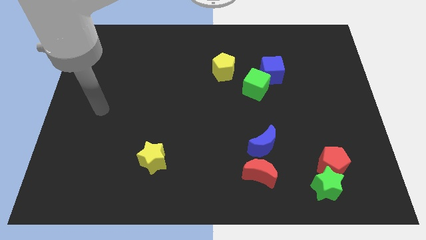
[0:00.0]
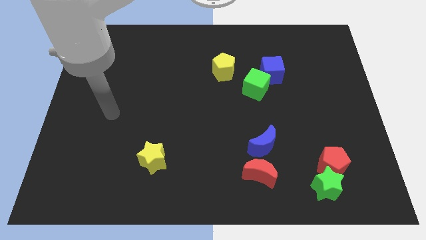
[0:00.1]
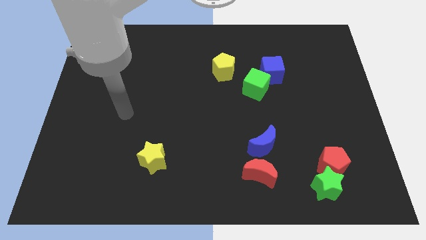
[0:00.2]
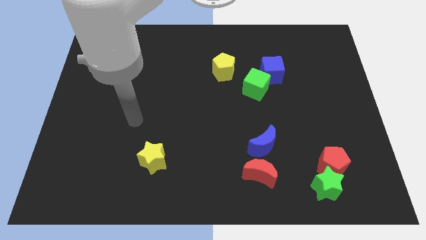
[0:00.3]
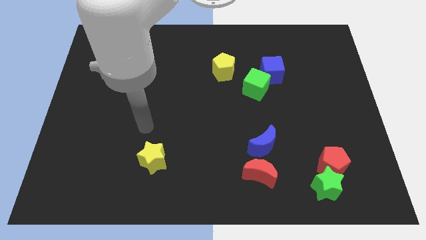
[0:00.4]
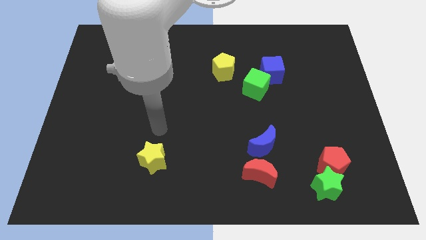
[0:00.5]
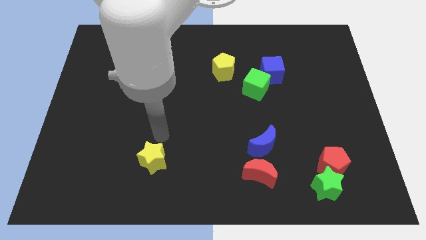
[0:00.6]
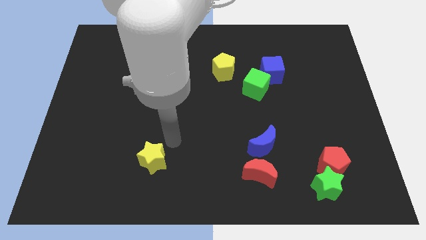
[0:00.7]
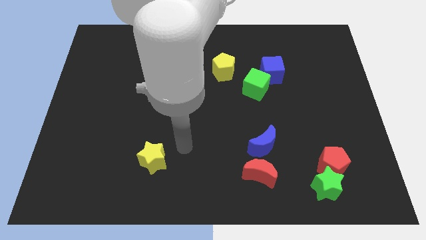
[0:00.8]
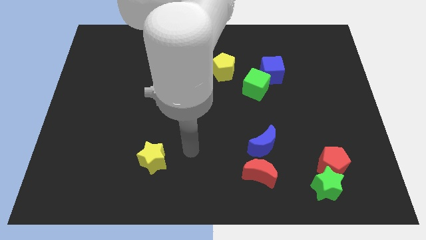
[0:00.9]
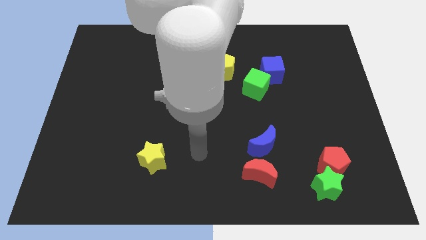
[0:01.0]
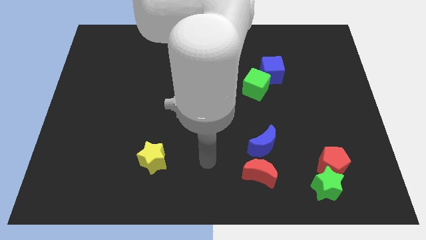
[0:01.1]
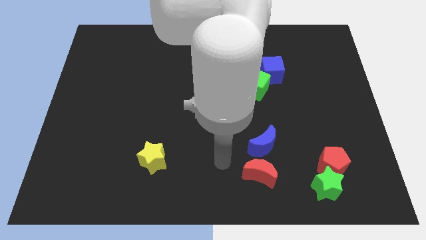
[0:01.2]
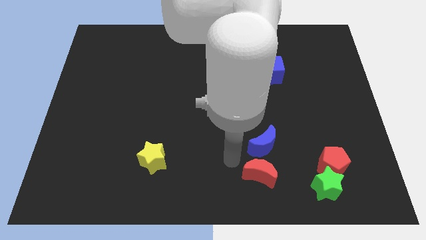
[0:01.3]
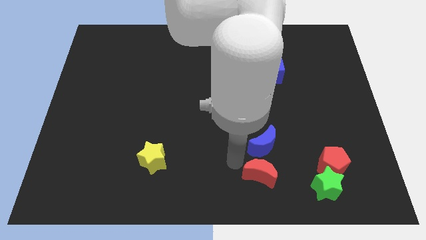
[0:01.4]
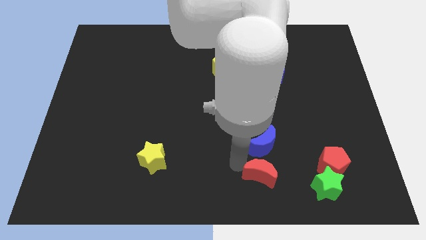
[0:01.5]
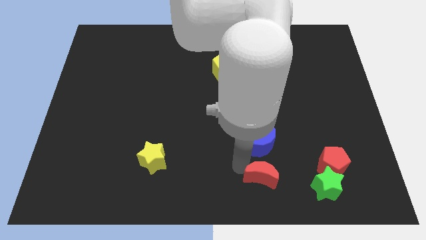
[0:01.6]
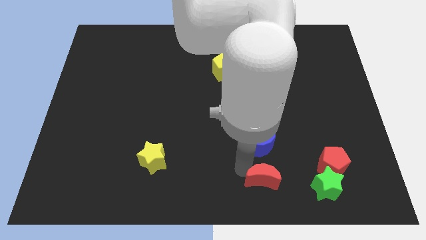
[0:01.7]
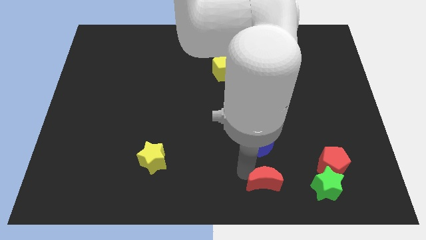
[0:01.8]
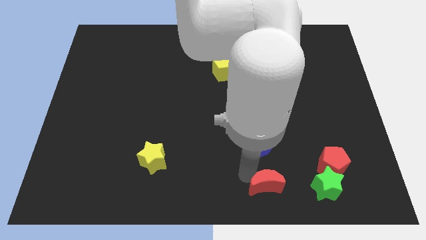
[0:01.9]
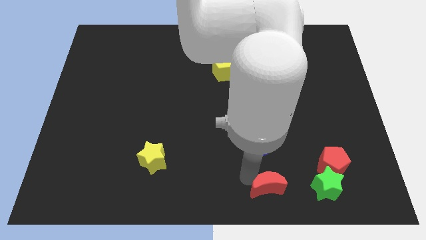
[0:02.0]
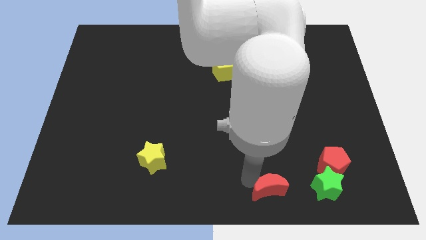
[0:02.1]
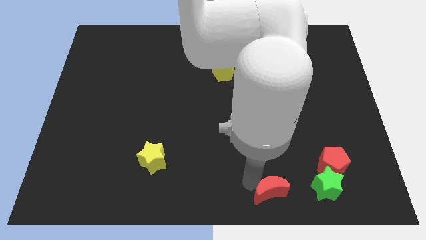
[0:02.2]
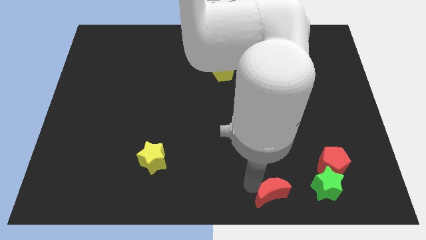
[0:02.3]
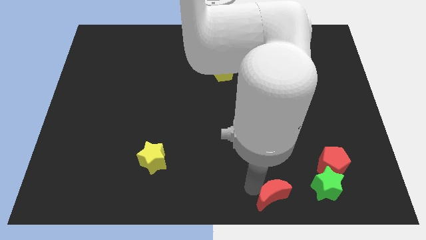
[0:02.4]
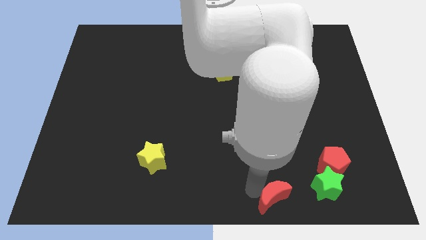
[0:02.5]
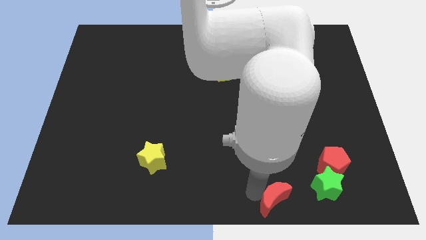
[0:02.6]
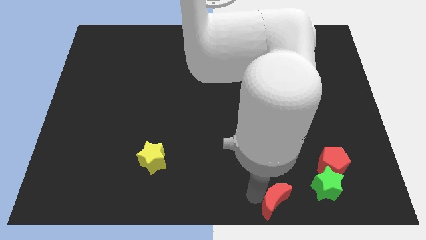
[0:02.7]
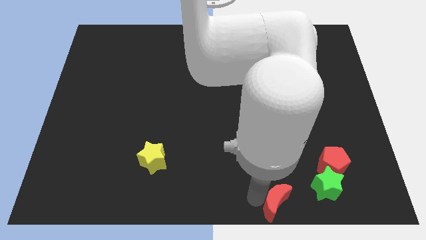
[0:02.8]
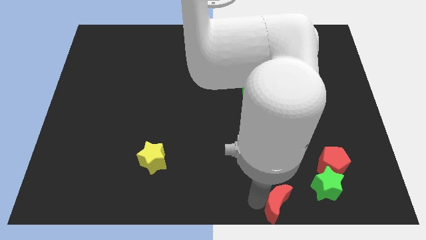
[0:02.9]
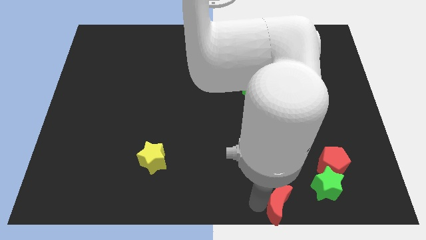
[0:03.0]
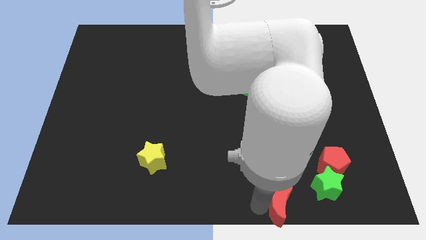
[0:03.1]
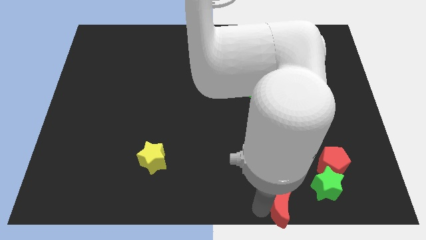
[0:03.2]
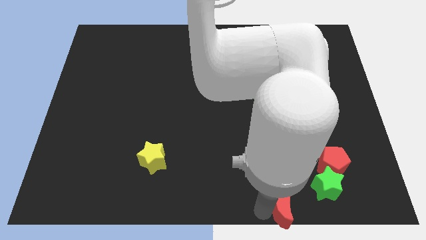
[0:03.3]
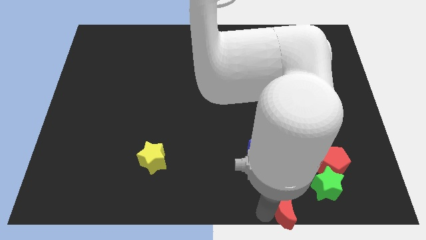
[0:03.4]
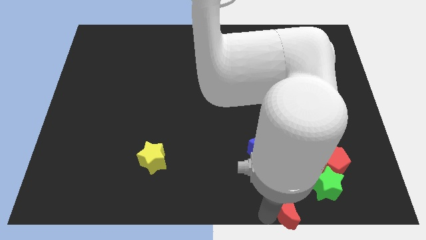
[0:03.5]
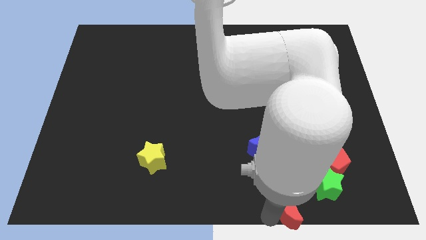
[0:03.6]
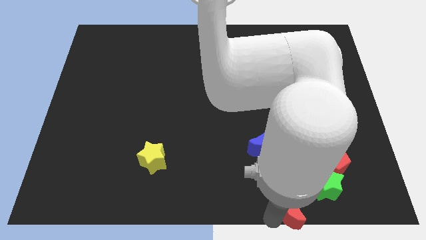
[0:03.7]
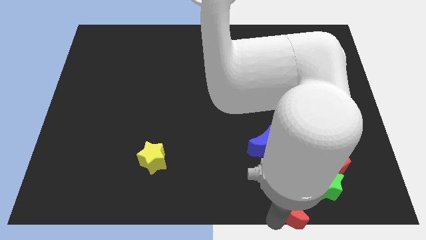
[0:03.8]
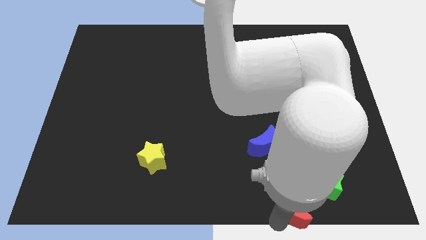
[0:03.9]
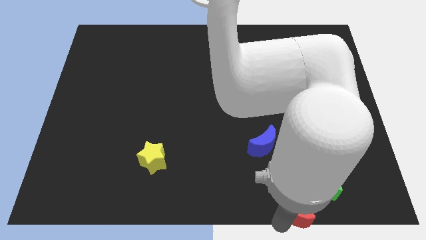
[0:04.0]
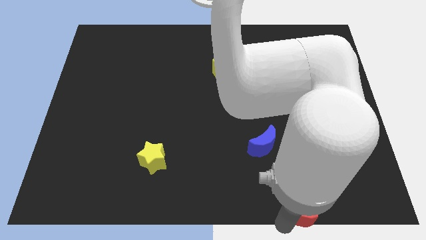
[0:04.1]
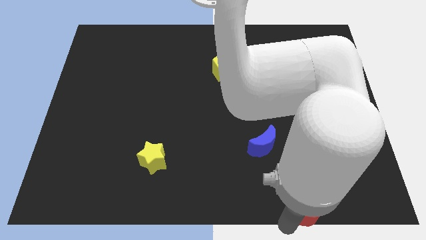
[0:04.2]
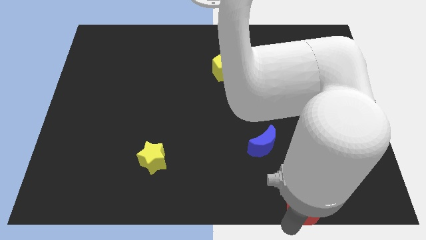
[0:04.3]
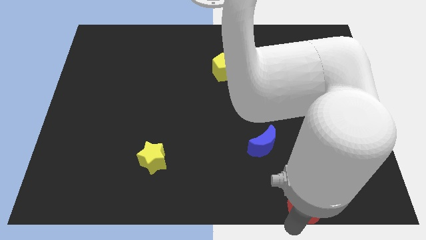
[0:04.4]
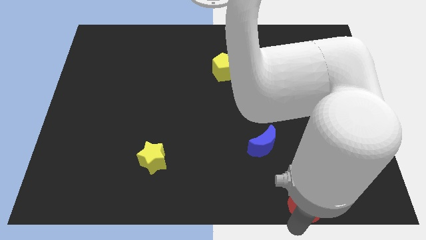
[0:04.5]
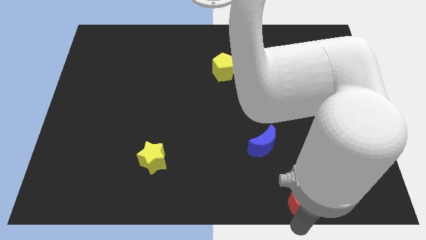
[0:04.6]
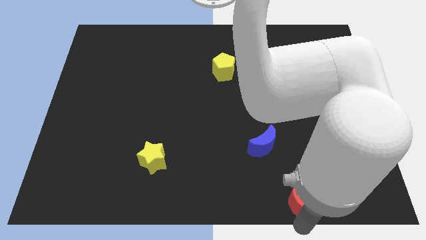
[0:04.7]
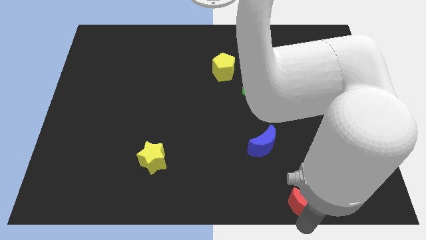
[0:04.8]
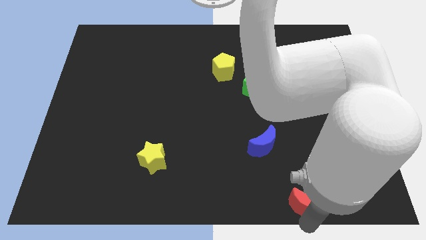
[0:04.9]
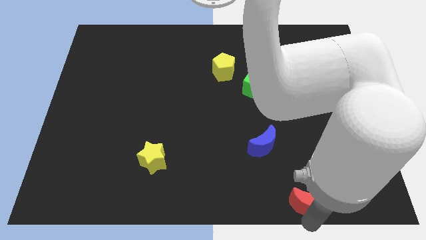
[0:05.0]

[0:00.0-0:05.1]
slide the red moon a little to the right

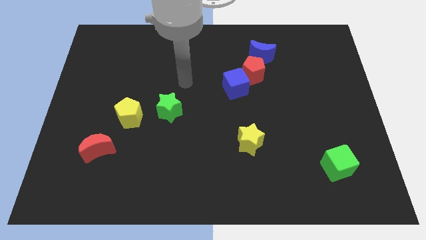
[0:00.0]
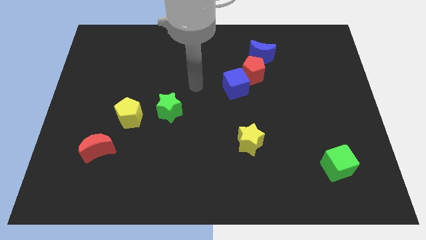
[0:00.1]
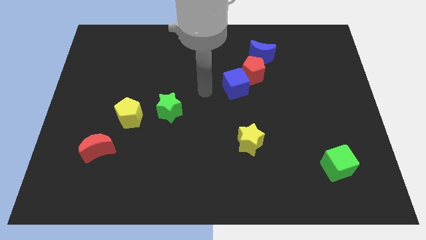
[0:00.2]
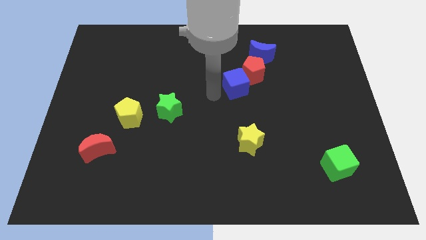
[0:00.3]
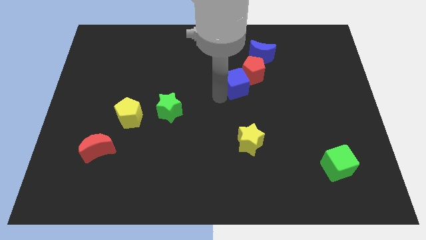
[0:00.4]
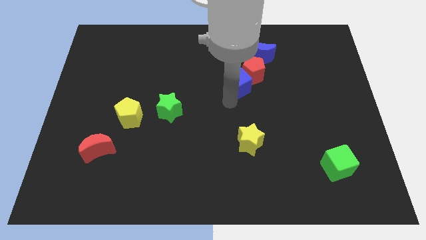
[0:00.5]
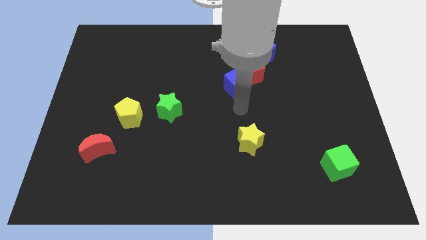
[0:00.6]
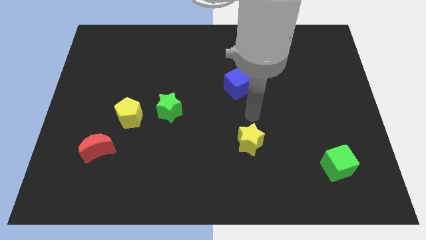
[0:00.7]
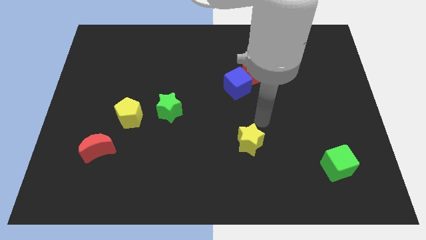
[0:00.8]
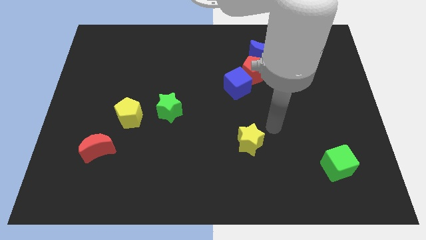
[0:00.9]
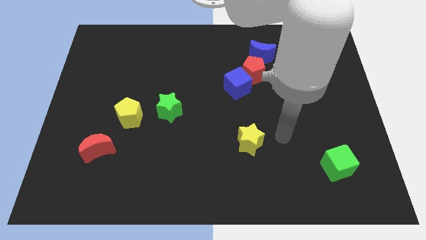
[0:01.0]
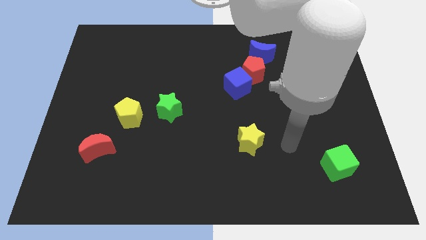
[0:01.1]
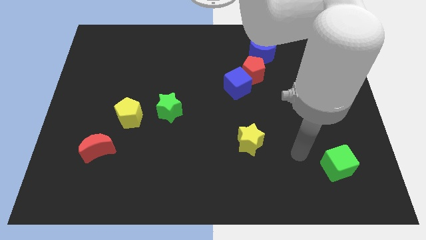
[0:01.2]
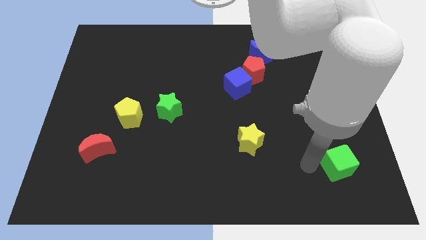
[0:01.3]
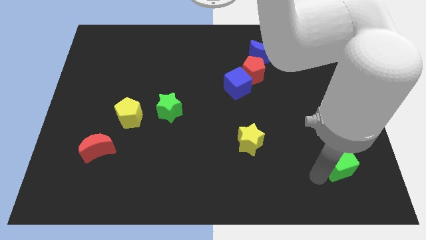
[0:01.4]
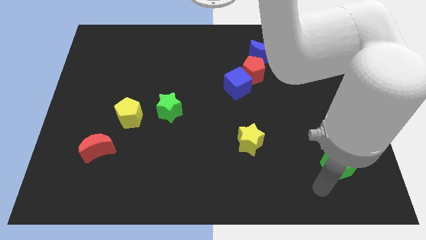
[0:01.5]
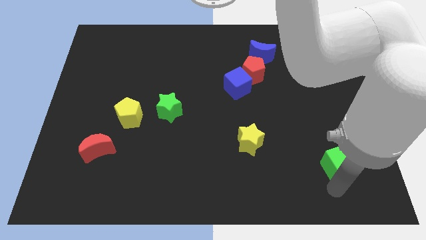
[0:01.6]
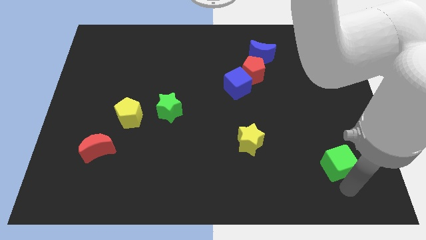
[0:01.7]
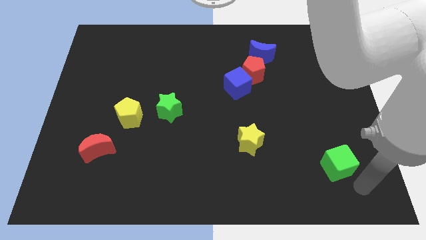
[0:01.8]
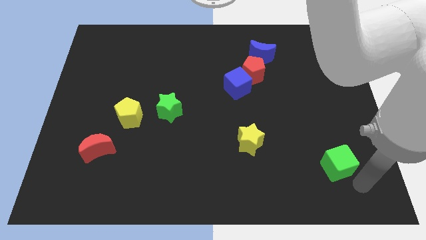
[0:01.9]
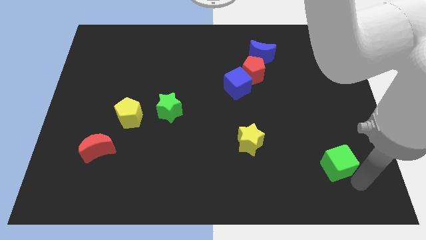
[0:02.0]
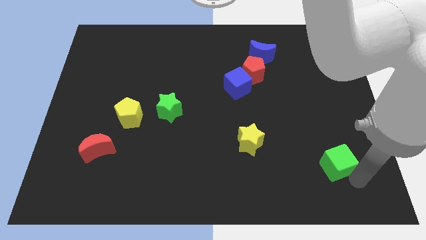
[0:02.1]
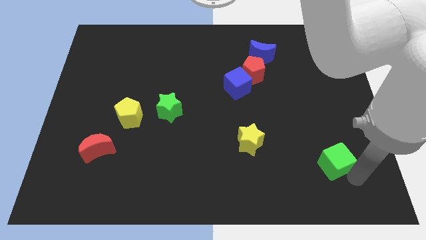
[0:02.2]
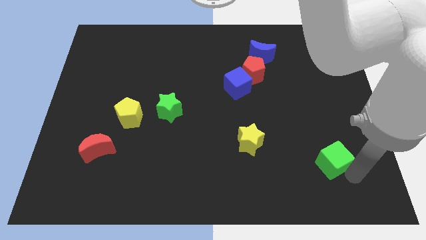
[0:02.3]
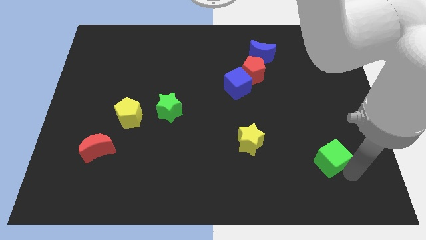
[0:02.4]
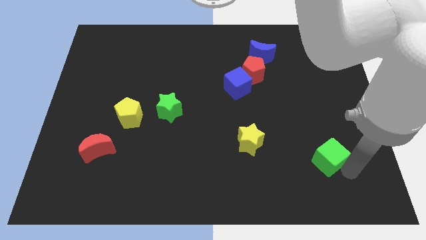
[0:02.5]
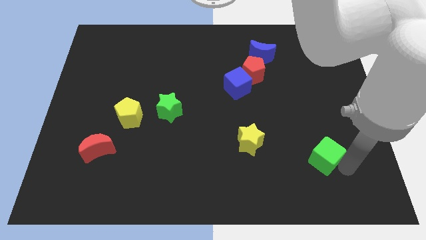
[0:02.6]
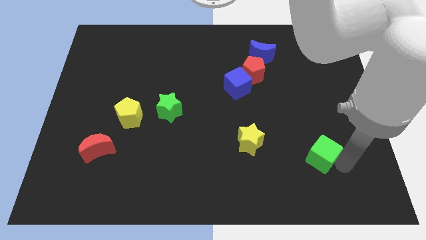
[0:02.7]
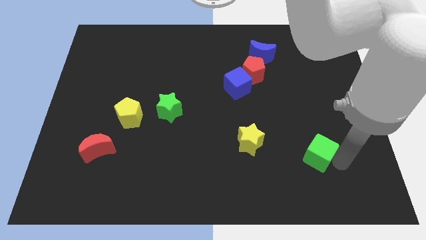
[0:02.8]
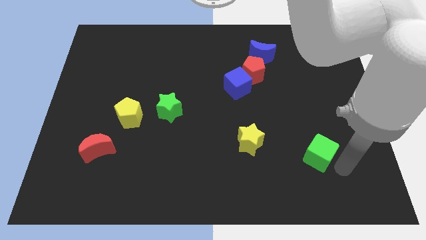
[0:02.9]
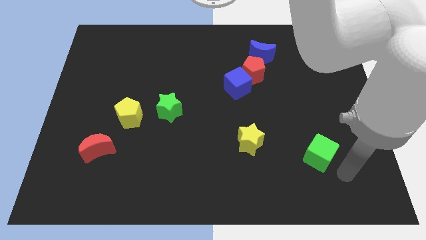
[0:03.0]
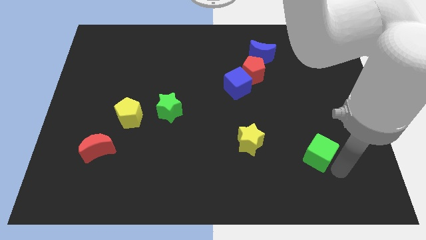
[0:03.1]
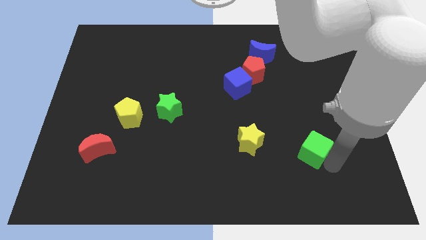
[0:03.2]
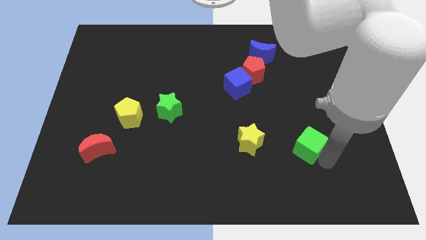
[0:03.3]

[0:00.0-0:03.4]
move the green cube a little upwards and then to the left
